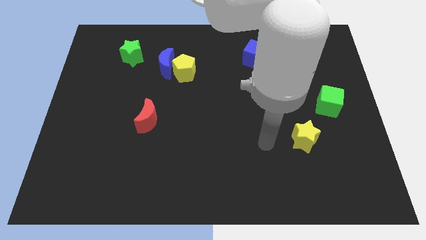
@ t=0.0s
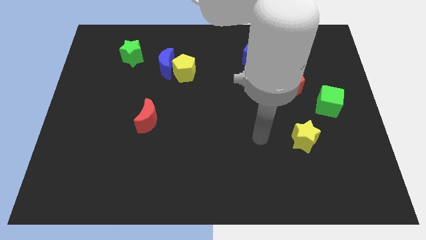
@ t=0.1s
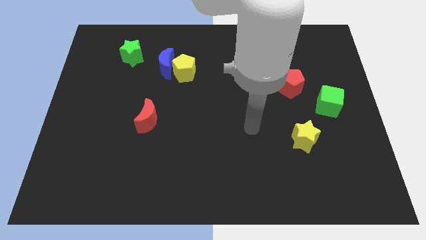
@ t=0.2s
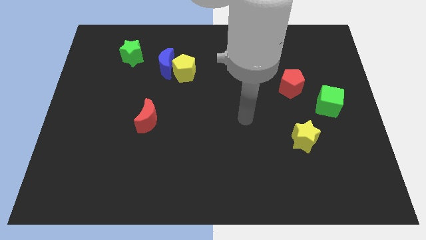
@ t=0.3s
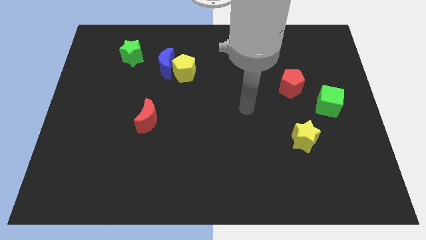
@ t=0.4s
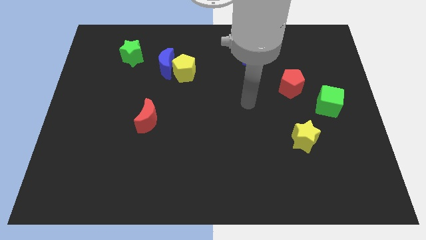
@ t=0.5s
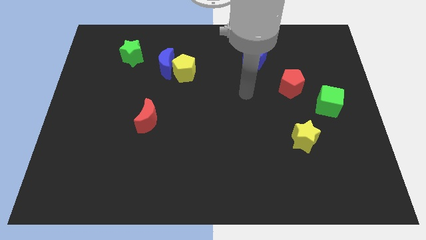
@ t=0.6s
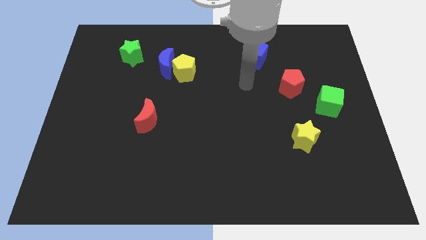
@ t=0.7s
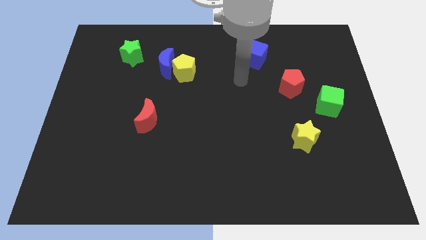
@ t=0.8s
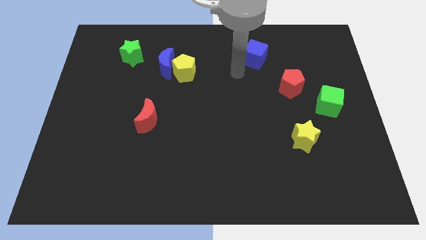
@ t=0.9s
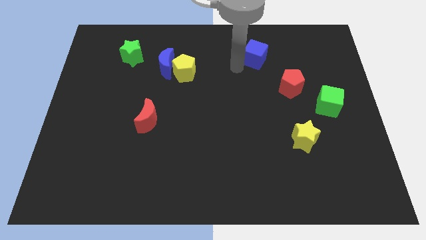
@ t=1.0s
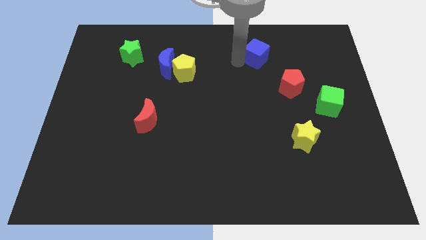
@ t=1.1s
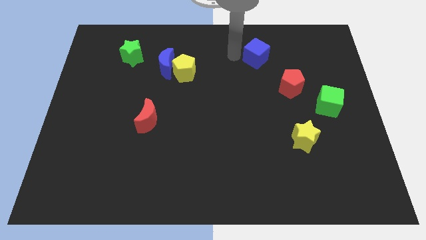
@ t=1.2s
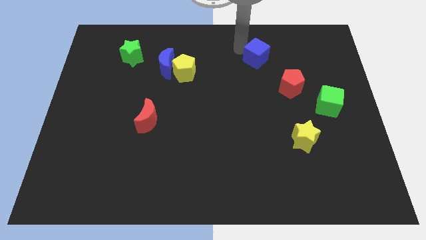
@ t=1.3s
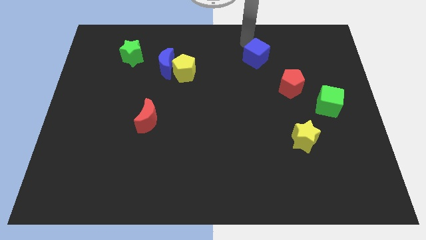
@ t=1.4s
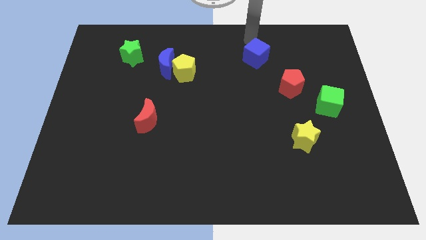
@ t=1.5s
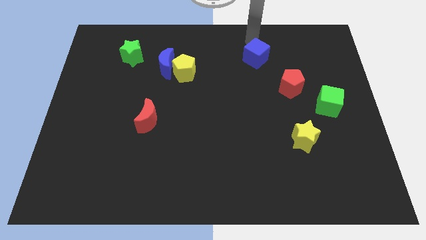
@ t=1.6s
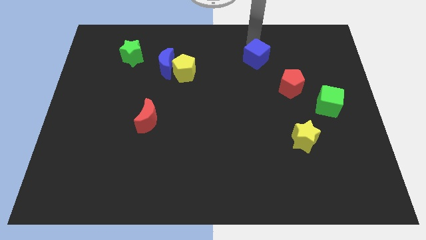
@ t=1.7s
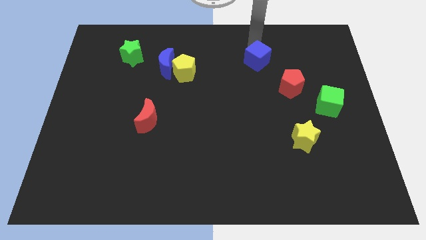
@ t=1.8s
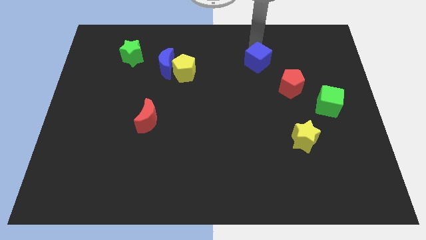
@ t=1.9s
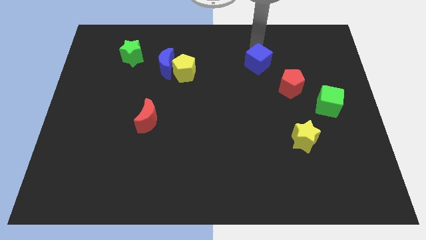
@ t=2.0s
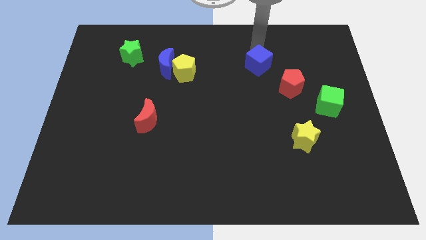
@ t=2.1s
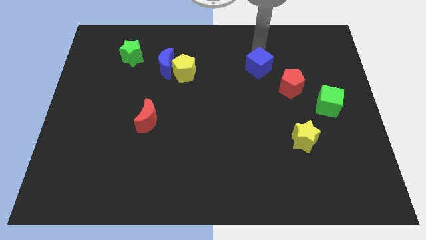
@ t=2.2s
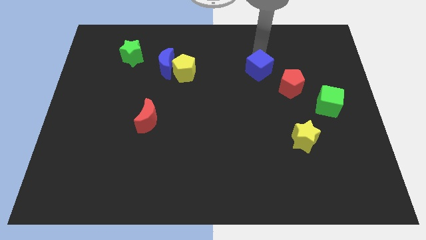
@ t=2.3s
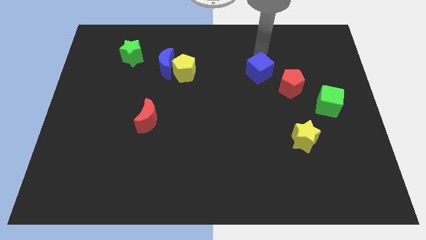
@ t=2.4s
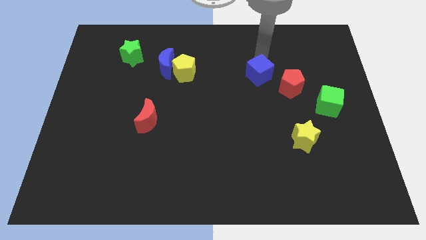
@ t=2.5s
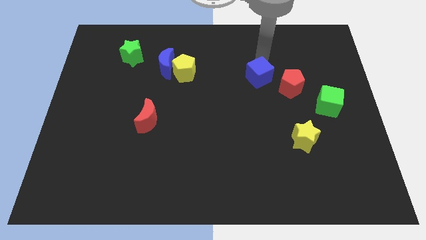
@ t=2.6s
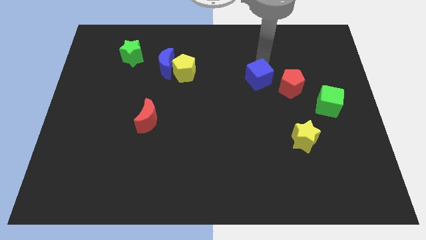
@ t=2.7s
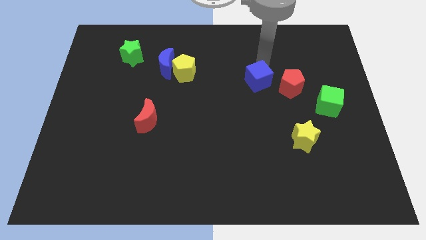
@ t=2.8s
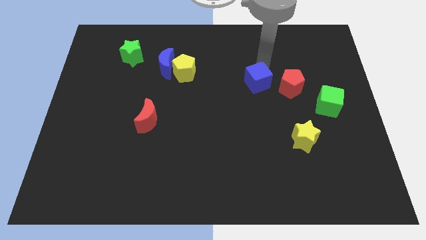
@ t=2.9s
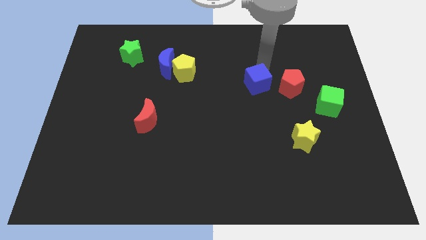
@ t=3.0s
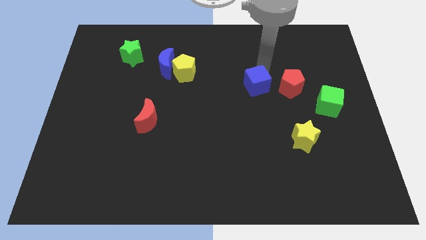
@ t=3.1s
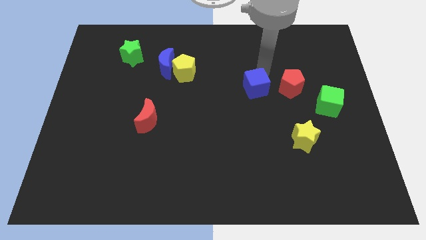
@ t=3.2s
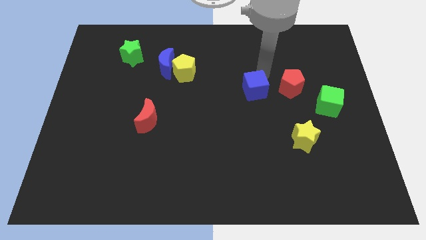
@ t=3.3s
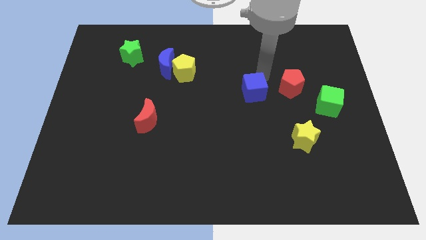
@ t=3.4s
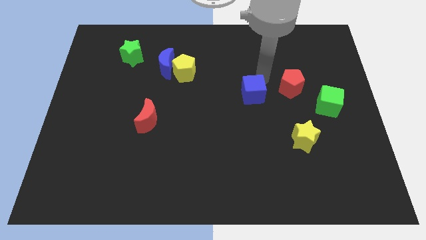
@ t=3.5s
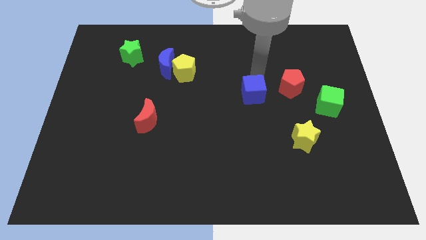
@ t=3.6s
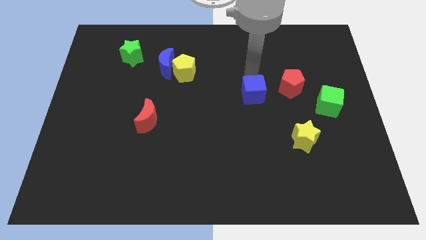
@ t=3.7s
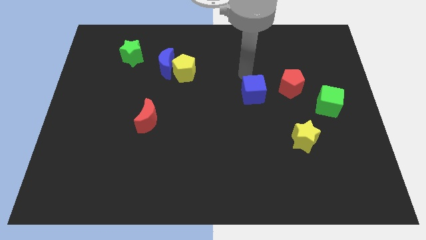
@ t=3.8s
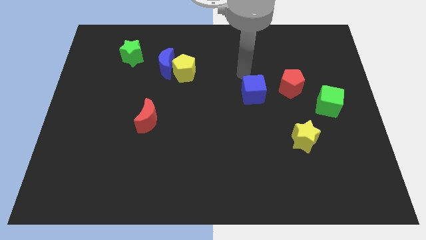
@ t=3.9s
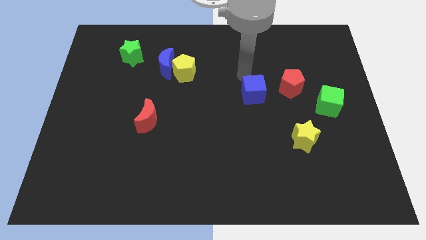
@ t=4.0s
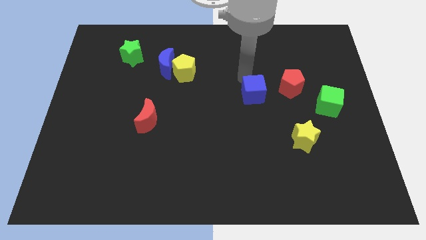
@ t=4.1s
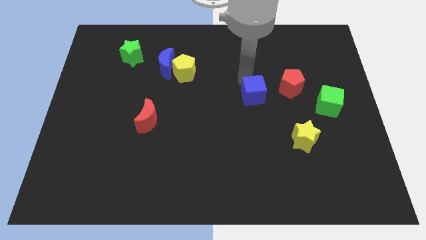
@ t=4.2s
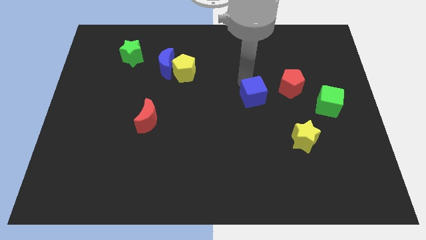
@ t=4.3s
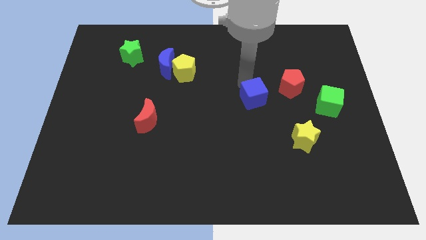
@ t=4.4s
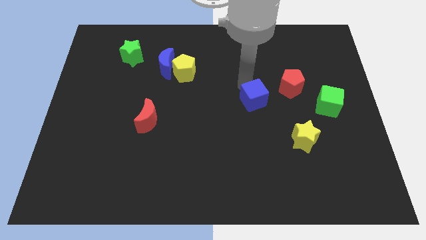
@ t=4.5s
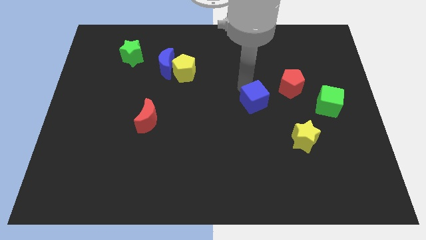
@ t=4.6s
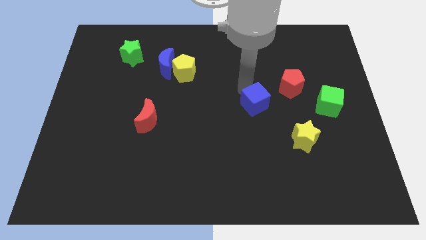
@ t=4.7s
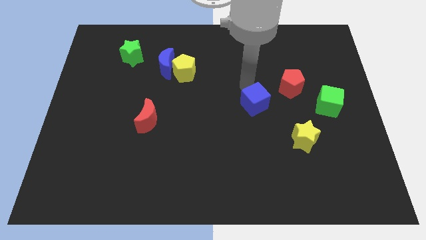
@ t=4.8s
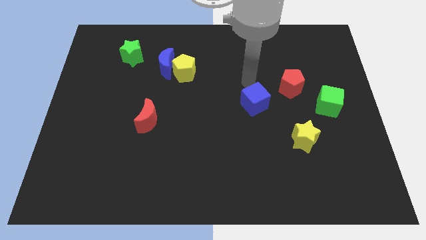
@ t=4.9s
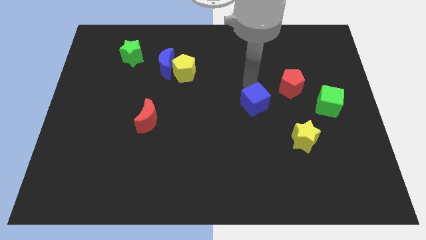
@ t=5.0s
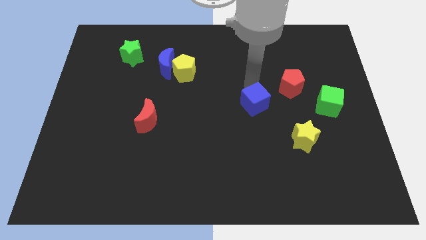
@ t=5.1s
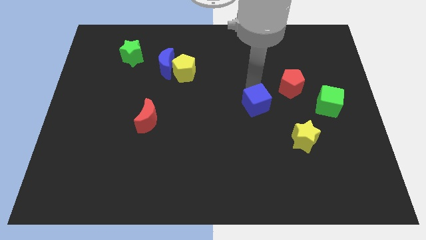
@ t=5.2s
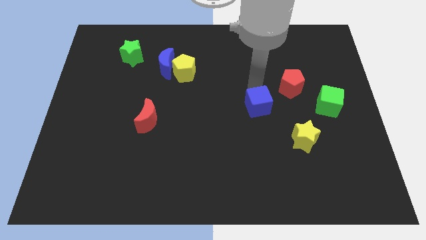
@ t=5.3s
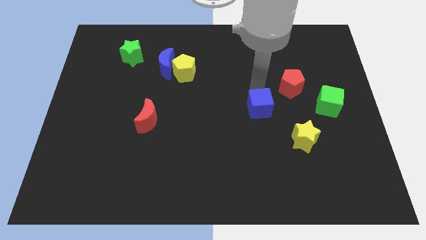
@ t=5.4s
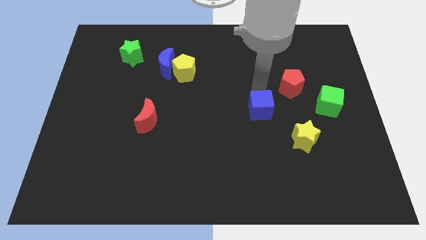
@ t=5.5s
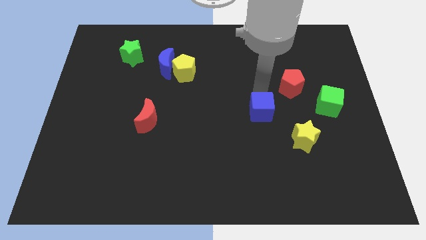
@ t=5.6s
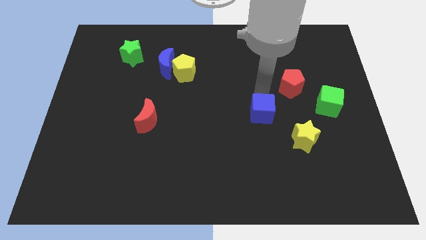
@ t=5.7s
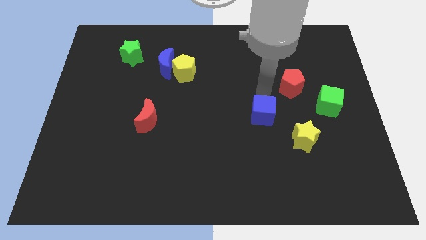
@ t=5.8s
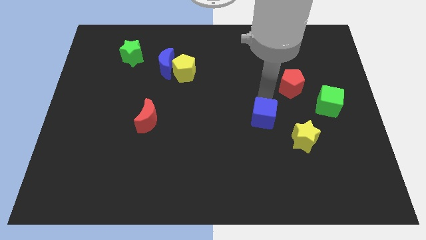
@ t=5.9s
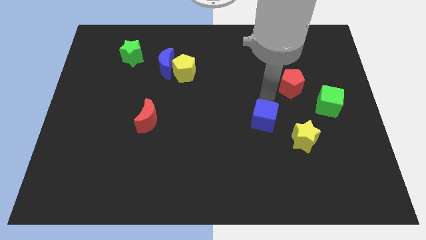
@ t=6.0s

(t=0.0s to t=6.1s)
slide the blue cube down

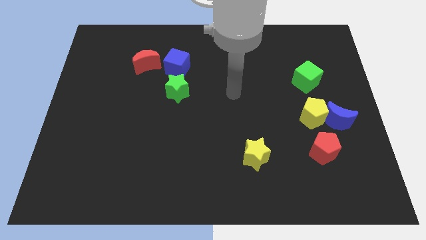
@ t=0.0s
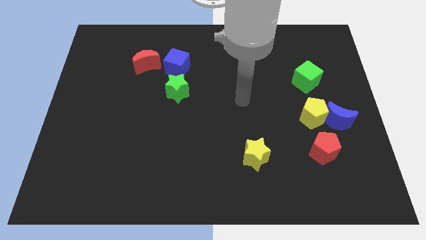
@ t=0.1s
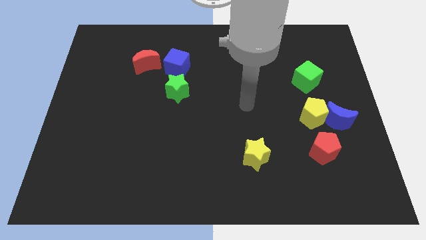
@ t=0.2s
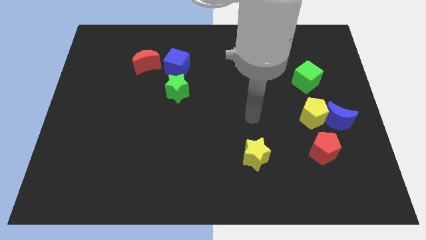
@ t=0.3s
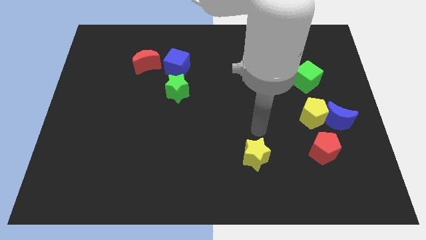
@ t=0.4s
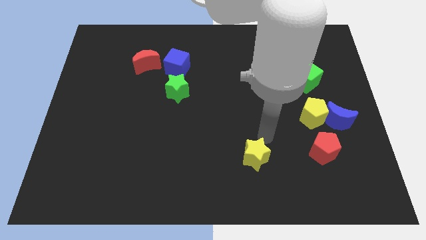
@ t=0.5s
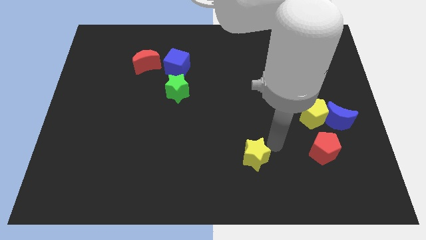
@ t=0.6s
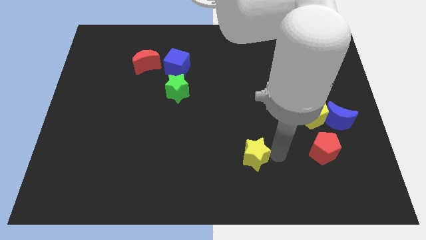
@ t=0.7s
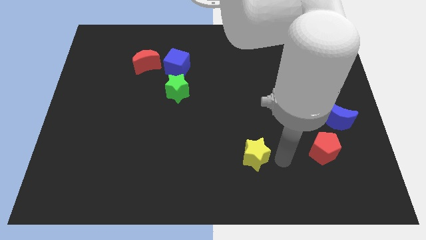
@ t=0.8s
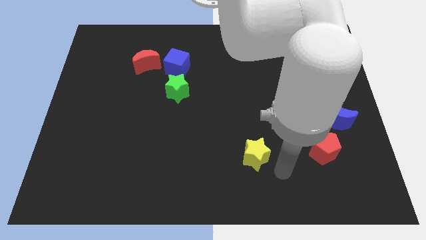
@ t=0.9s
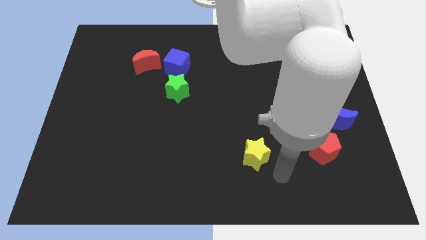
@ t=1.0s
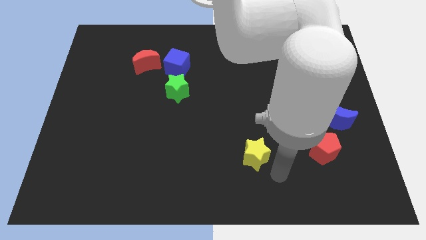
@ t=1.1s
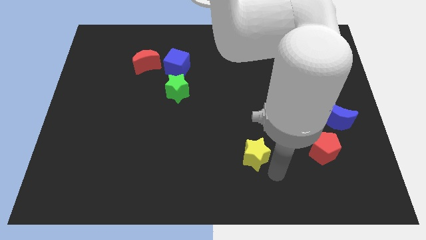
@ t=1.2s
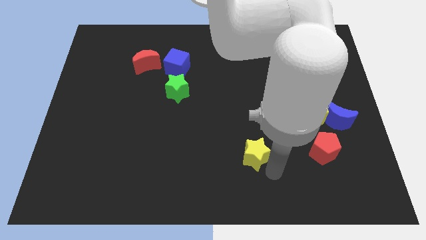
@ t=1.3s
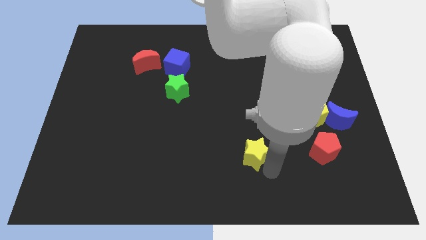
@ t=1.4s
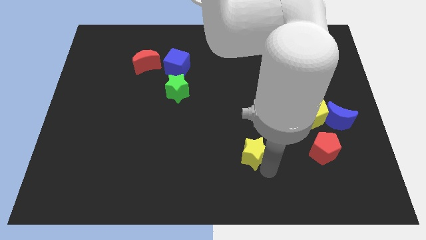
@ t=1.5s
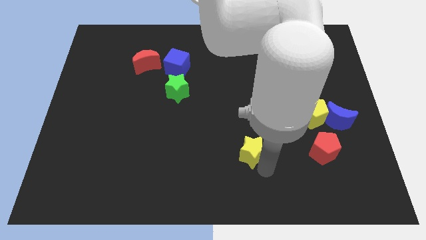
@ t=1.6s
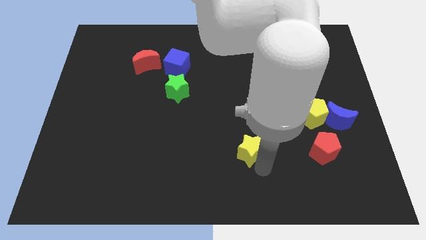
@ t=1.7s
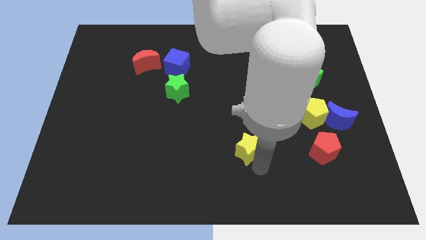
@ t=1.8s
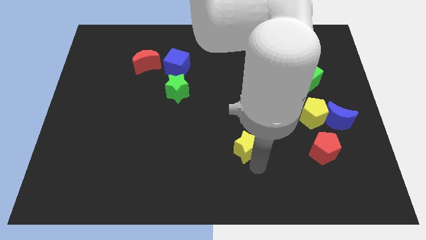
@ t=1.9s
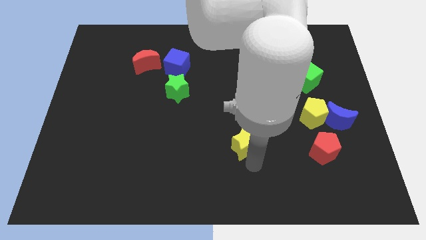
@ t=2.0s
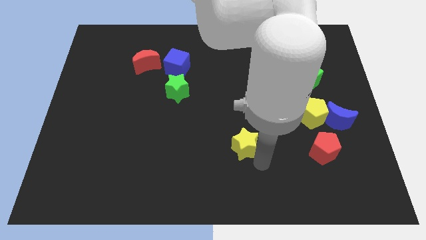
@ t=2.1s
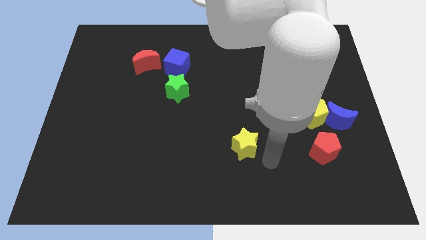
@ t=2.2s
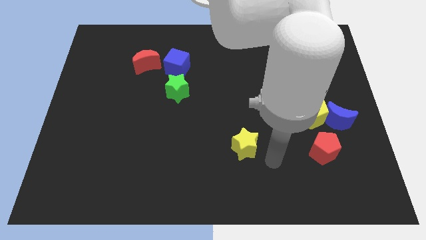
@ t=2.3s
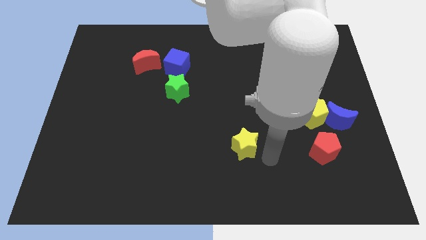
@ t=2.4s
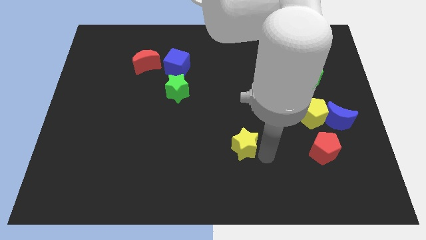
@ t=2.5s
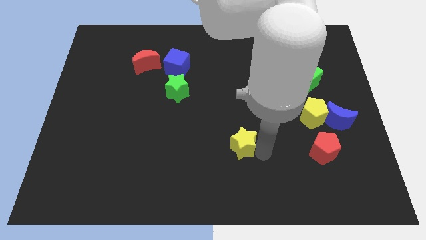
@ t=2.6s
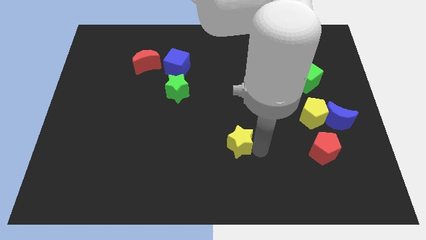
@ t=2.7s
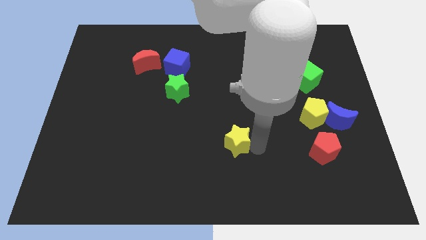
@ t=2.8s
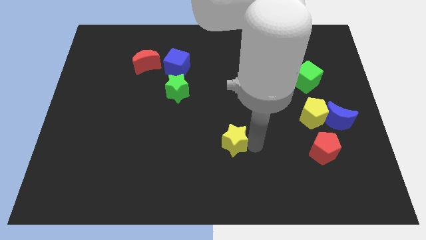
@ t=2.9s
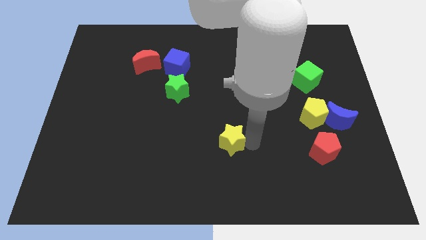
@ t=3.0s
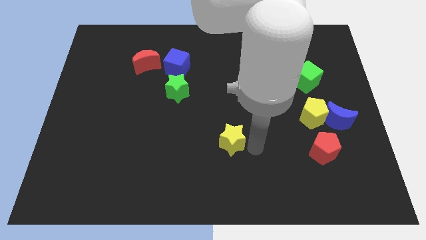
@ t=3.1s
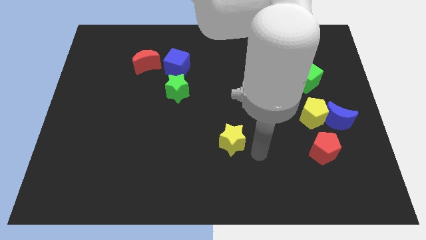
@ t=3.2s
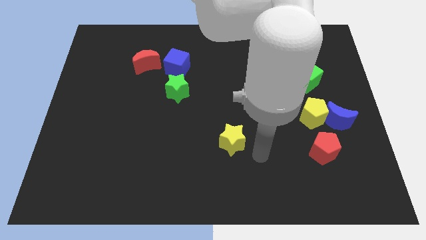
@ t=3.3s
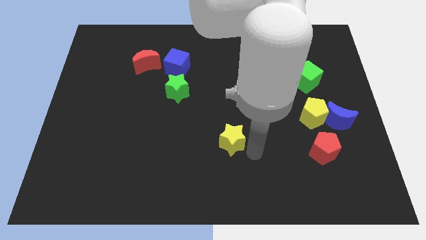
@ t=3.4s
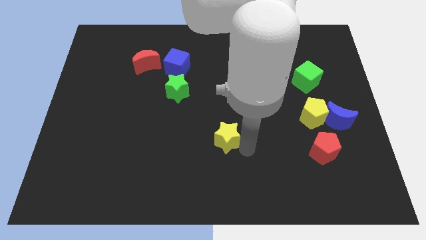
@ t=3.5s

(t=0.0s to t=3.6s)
slightly push the yellow star diagonally upwards and to the left
